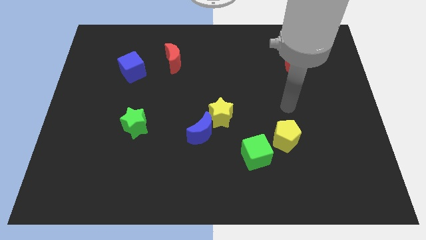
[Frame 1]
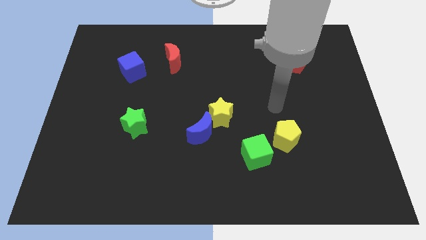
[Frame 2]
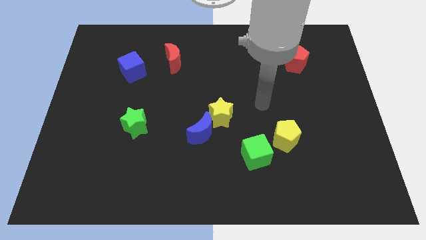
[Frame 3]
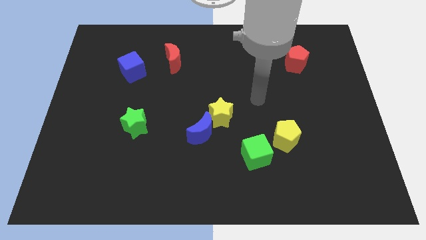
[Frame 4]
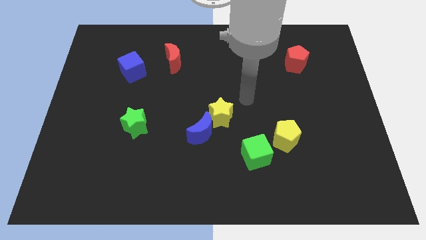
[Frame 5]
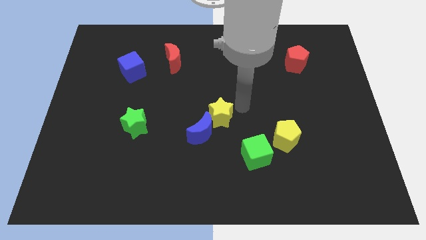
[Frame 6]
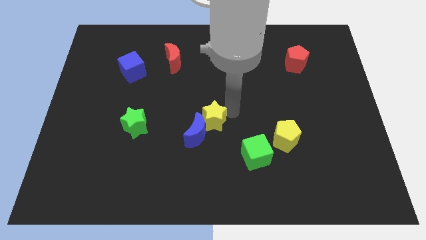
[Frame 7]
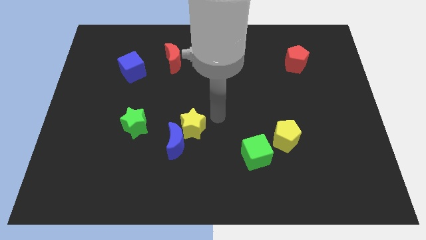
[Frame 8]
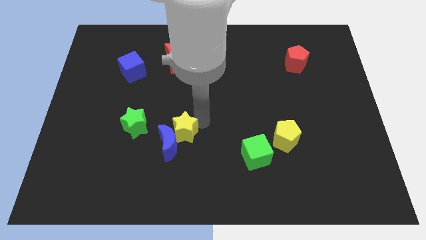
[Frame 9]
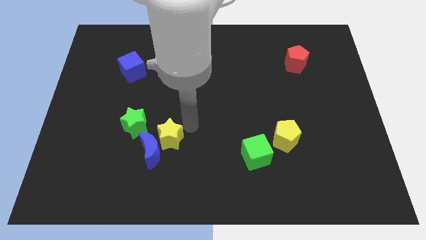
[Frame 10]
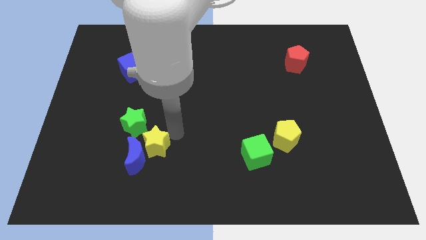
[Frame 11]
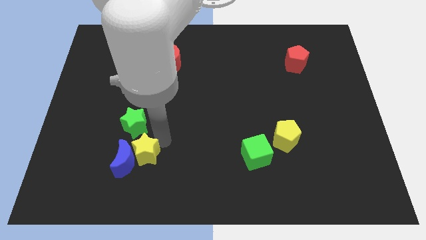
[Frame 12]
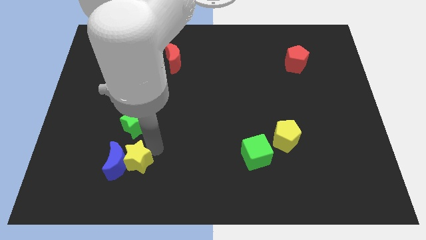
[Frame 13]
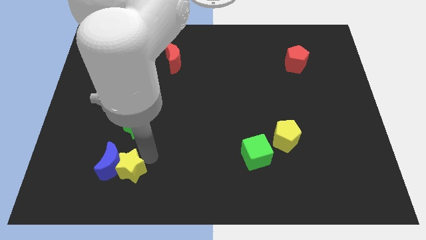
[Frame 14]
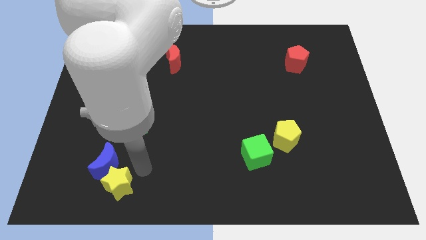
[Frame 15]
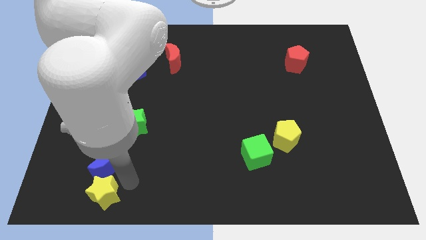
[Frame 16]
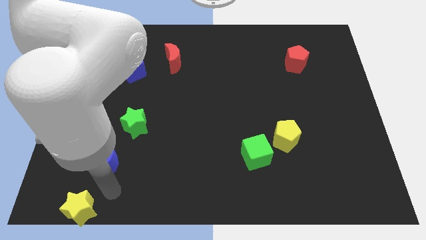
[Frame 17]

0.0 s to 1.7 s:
separate the blue moon from the yellow star

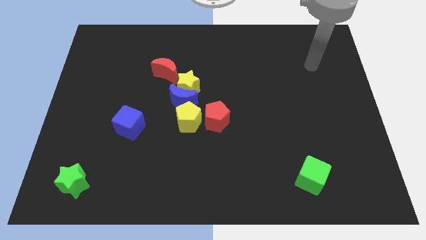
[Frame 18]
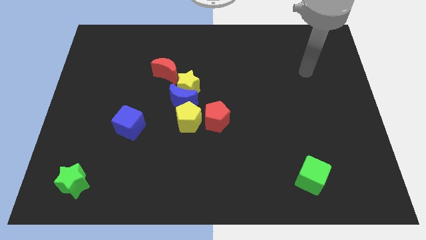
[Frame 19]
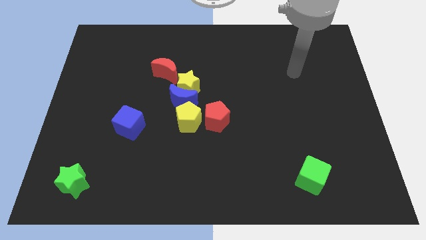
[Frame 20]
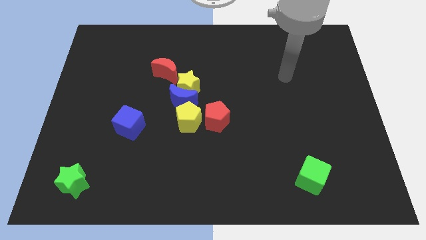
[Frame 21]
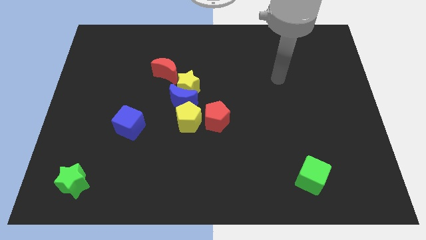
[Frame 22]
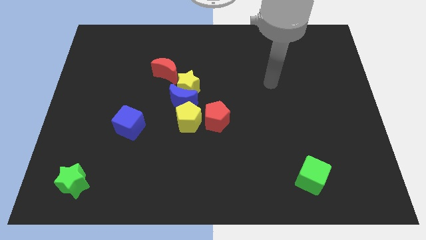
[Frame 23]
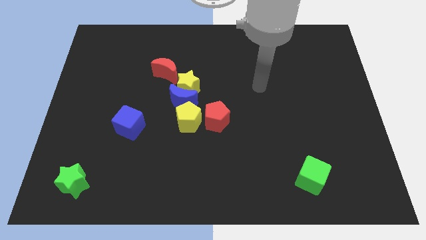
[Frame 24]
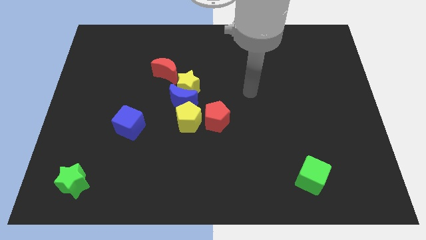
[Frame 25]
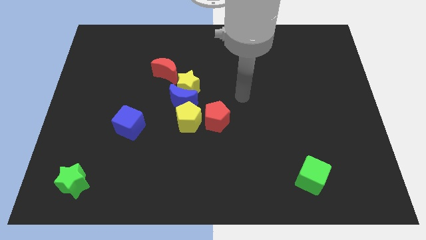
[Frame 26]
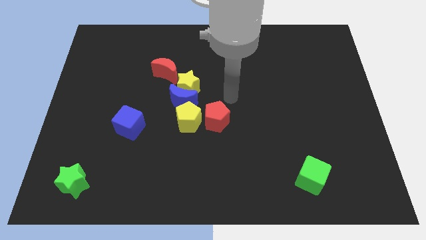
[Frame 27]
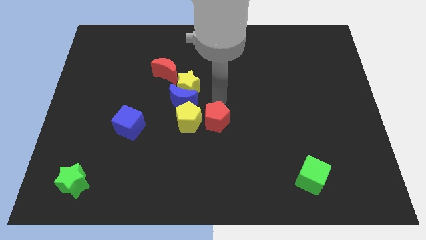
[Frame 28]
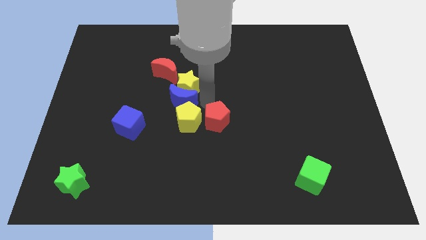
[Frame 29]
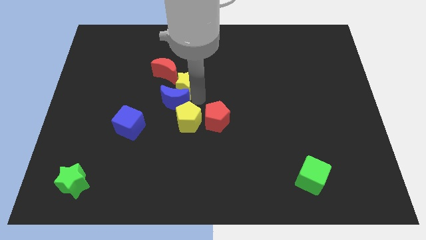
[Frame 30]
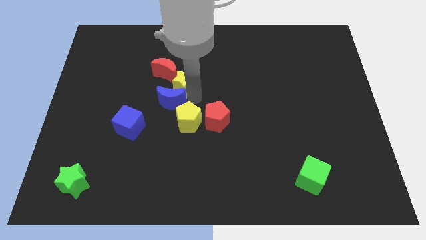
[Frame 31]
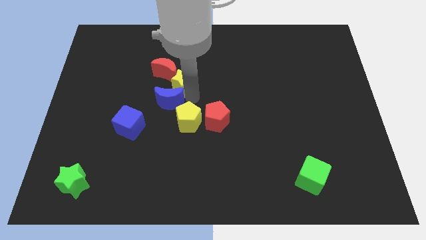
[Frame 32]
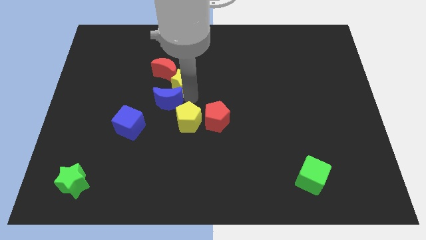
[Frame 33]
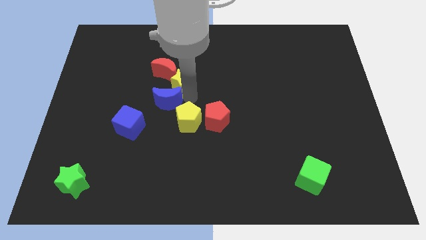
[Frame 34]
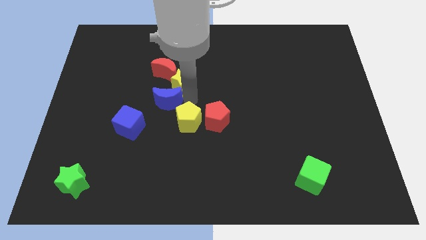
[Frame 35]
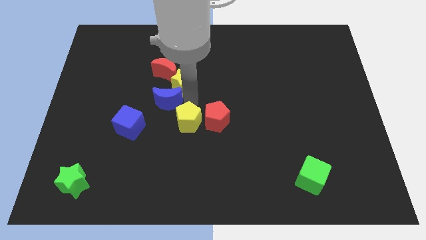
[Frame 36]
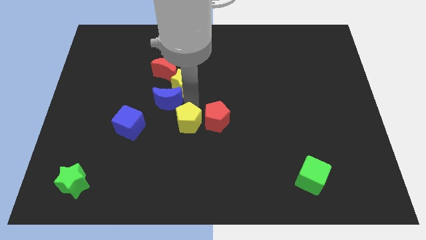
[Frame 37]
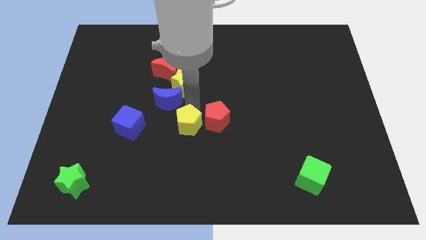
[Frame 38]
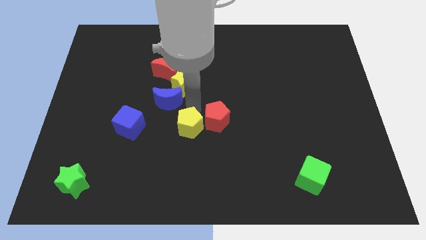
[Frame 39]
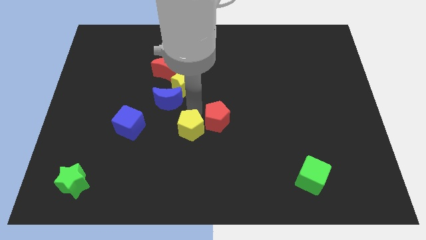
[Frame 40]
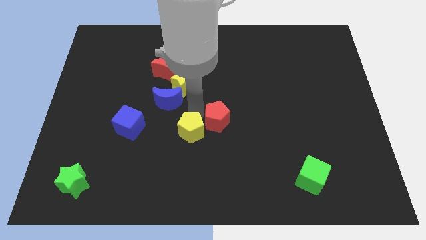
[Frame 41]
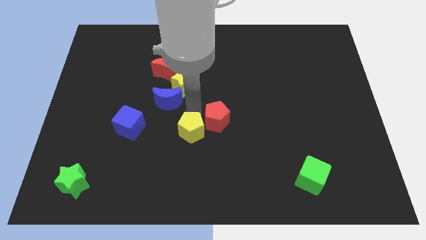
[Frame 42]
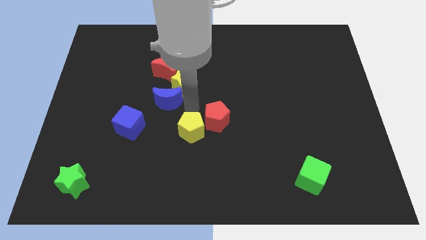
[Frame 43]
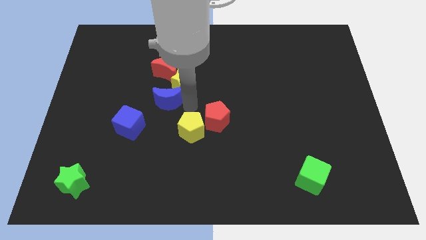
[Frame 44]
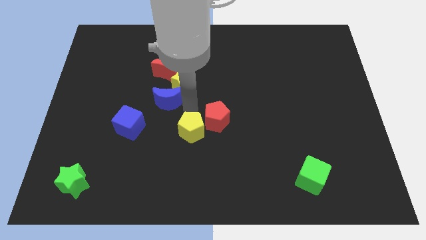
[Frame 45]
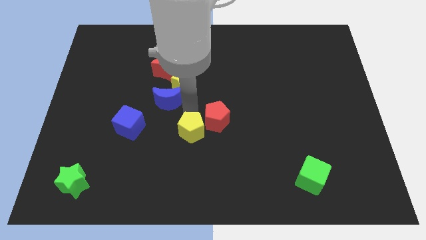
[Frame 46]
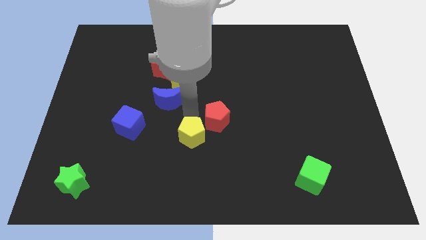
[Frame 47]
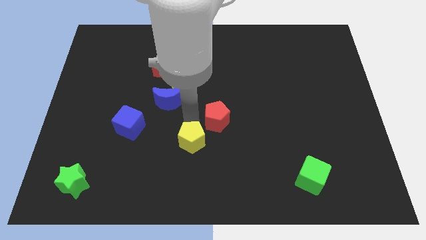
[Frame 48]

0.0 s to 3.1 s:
pull the yellow pentagon apart from the blue moon, red pentagon, and yellow star

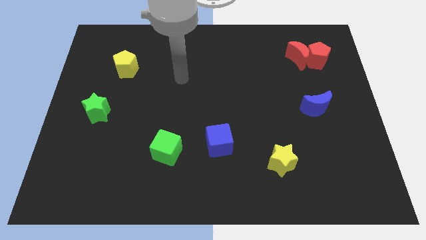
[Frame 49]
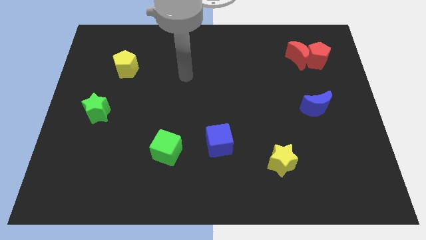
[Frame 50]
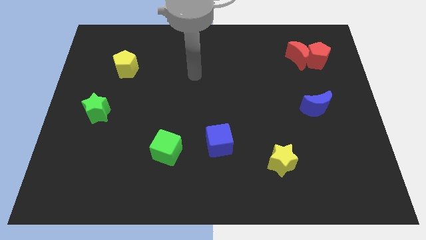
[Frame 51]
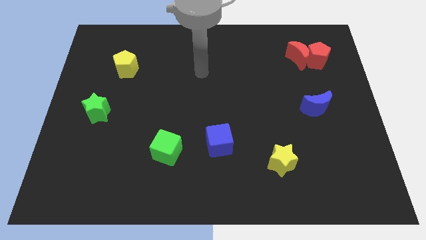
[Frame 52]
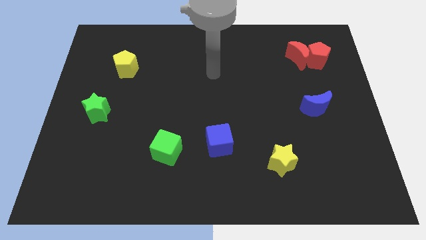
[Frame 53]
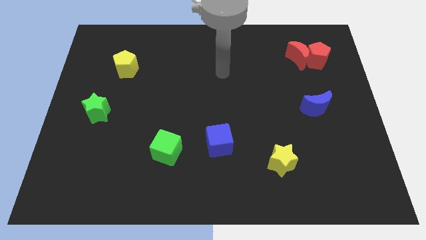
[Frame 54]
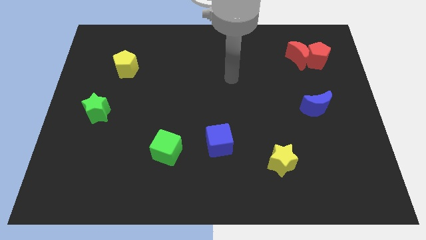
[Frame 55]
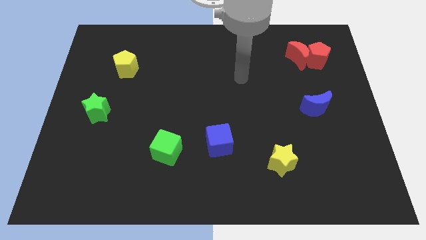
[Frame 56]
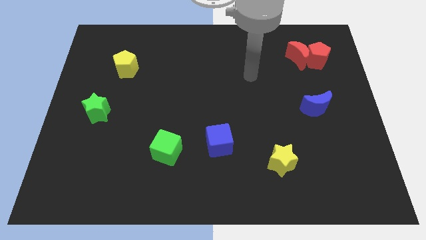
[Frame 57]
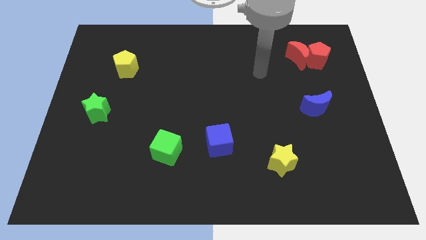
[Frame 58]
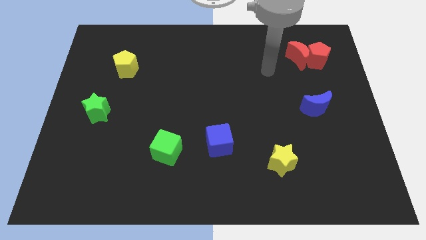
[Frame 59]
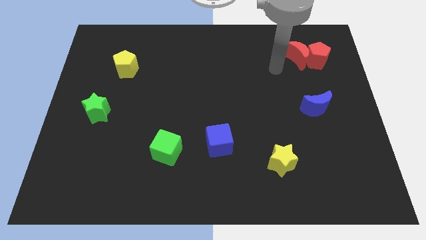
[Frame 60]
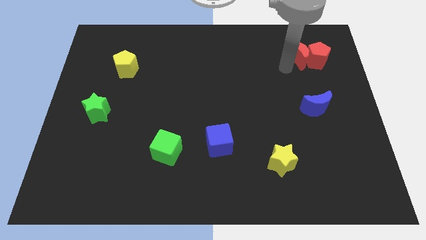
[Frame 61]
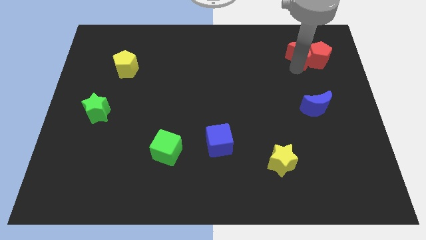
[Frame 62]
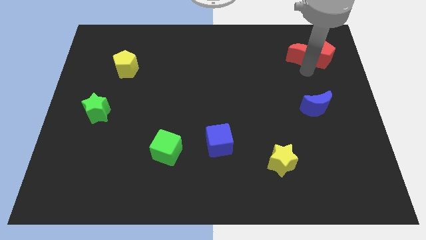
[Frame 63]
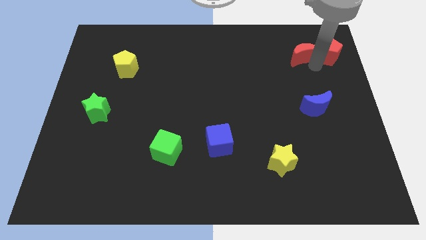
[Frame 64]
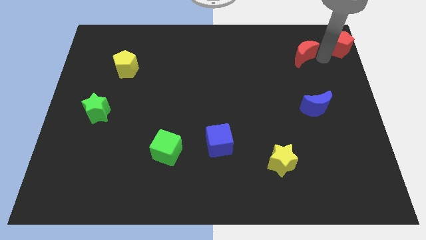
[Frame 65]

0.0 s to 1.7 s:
pull the red moon apart from the red pentagon

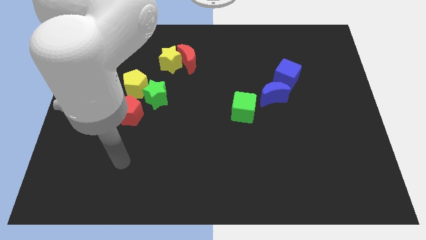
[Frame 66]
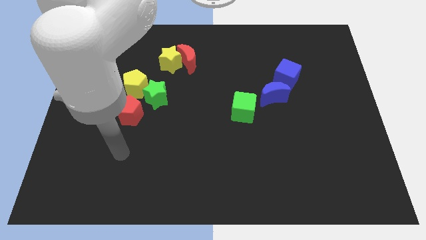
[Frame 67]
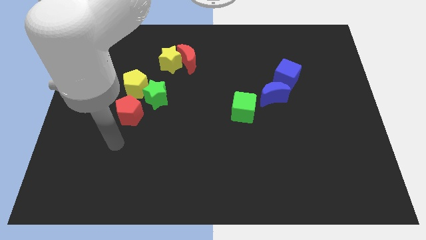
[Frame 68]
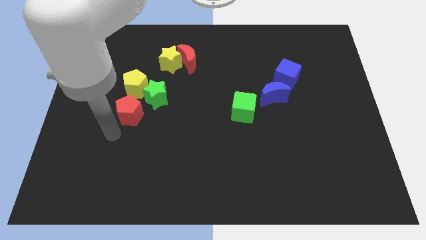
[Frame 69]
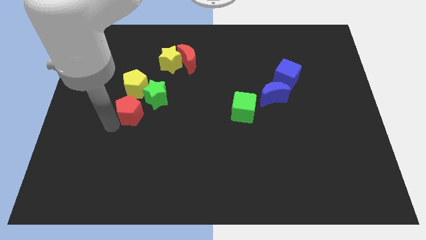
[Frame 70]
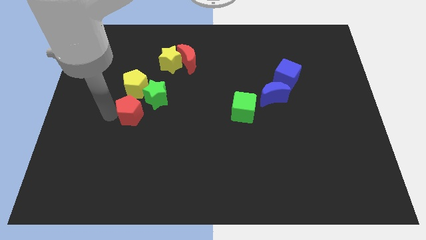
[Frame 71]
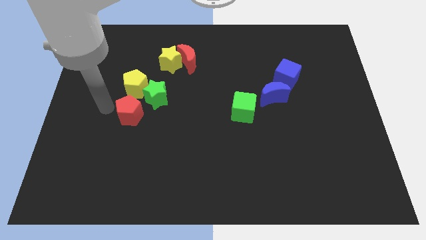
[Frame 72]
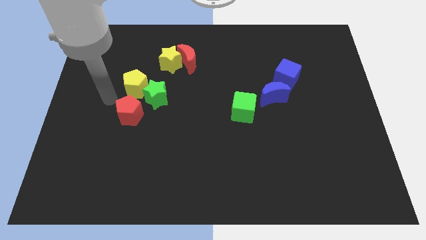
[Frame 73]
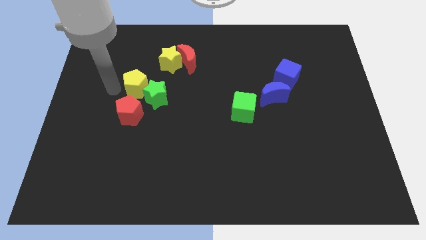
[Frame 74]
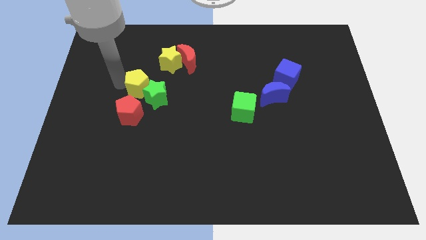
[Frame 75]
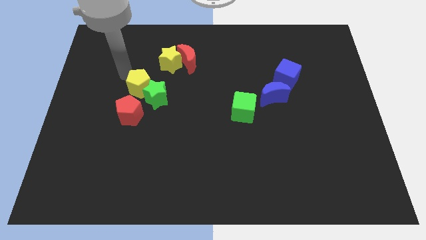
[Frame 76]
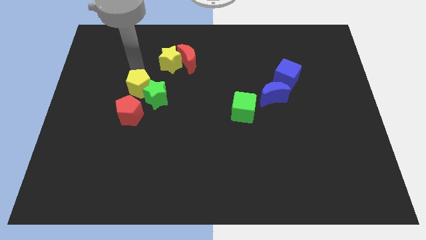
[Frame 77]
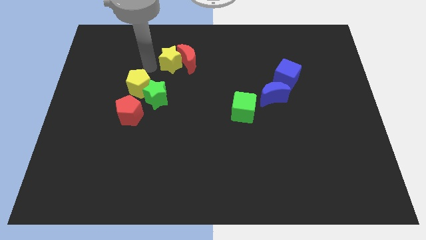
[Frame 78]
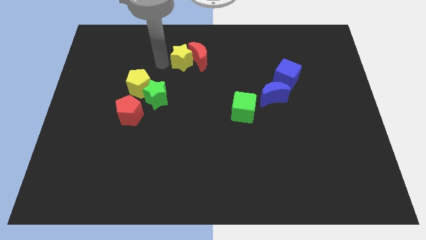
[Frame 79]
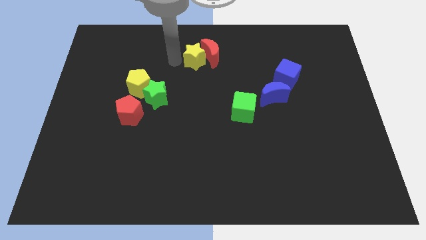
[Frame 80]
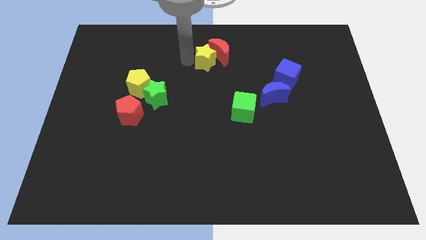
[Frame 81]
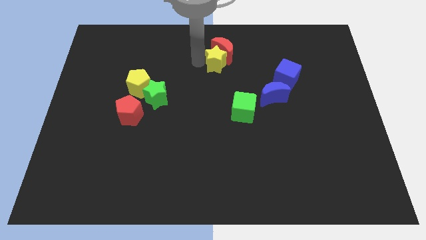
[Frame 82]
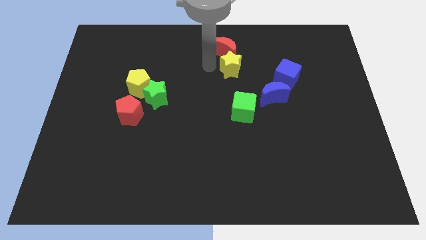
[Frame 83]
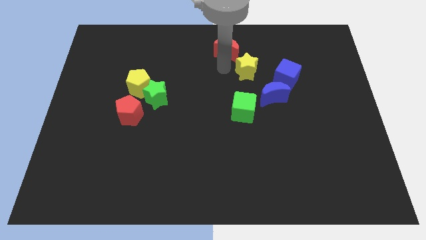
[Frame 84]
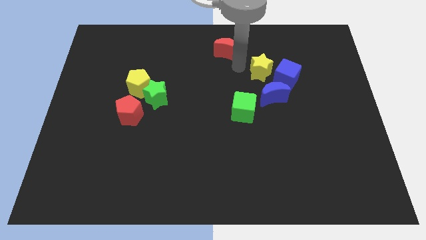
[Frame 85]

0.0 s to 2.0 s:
move the red moon away from the yellow star

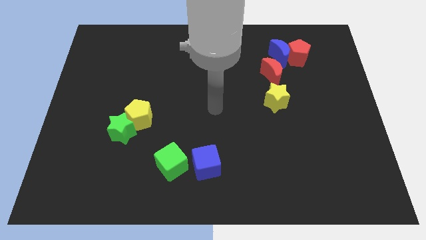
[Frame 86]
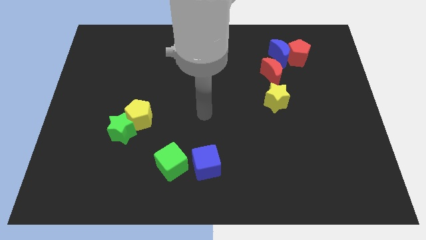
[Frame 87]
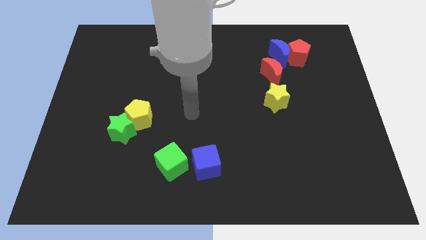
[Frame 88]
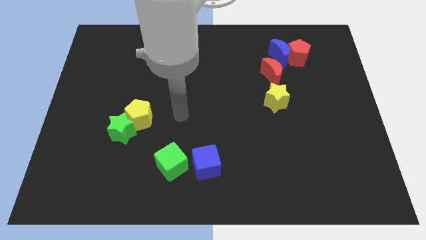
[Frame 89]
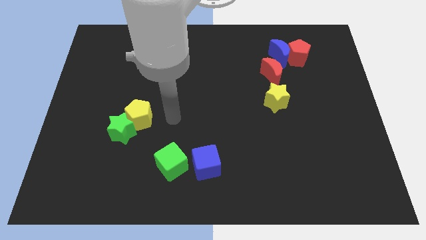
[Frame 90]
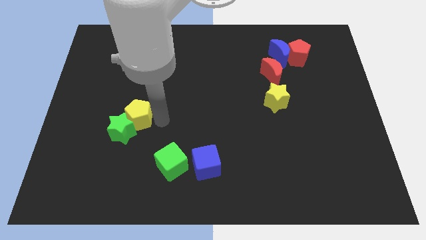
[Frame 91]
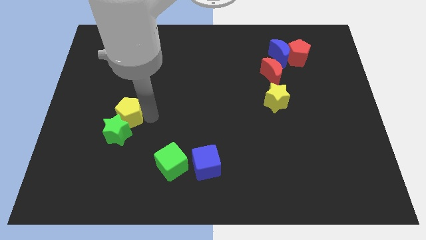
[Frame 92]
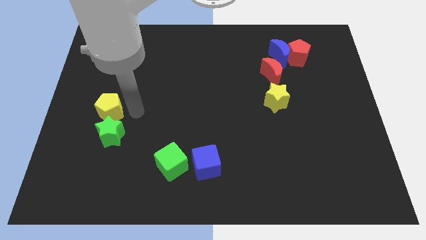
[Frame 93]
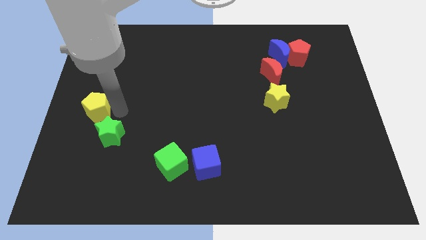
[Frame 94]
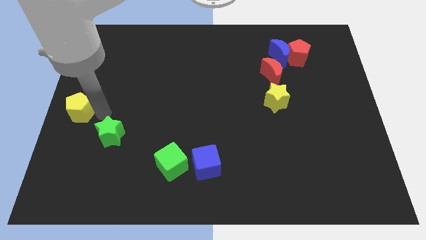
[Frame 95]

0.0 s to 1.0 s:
pull the green star apart from the yellow pentagon
